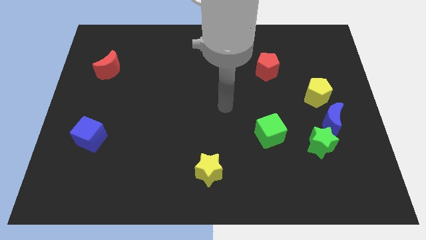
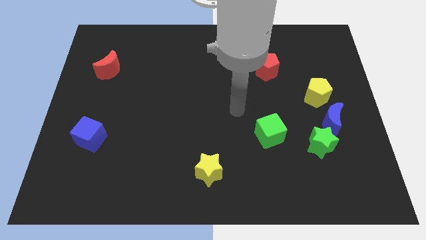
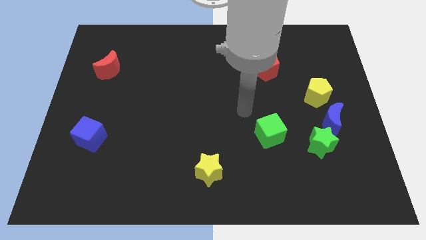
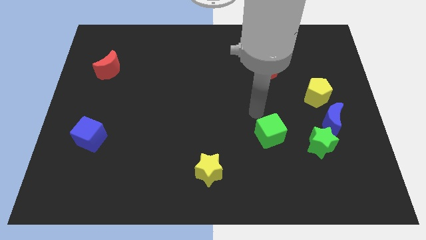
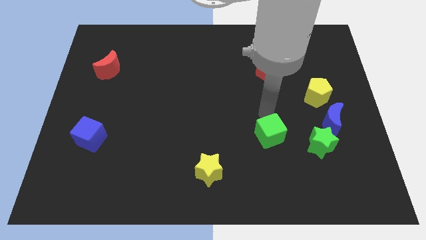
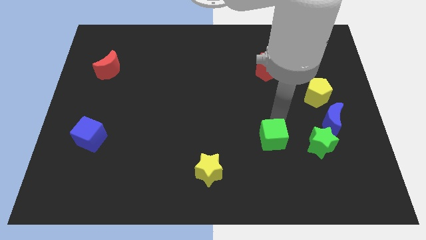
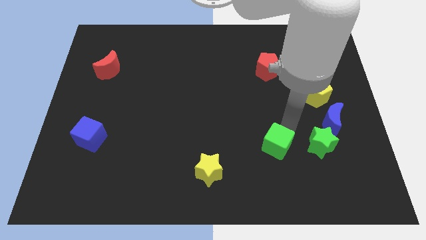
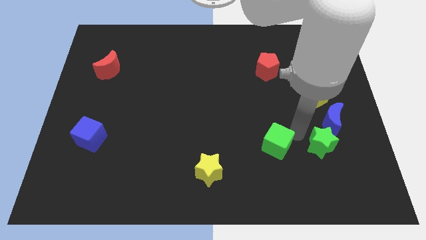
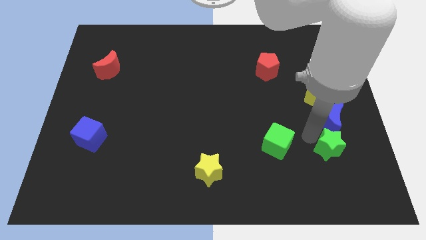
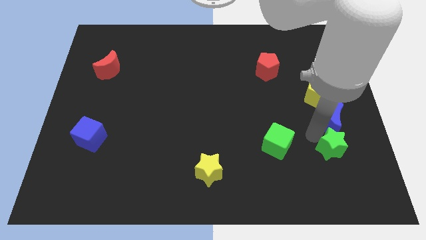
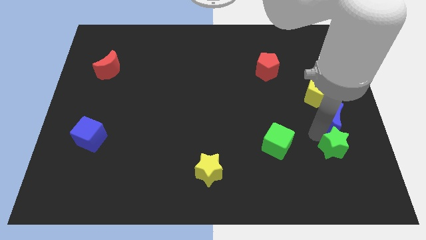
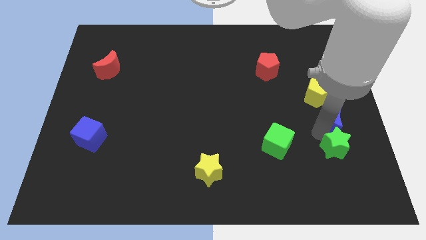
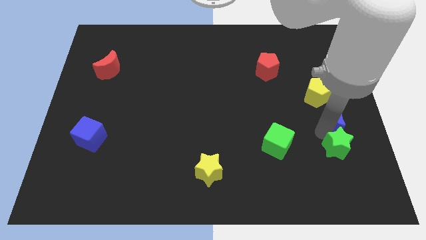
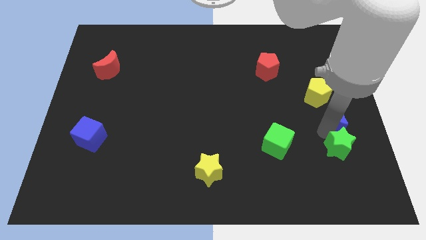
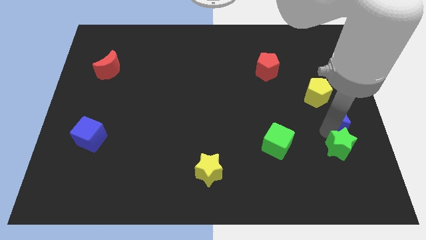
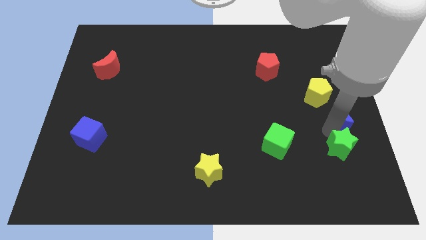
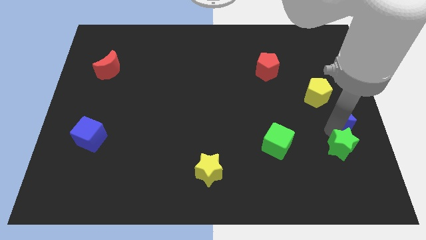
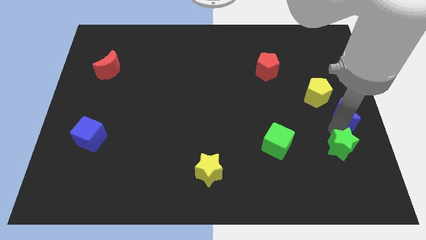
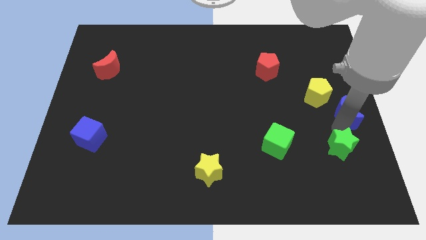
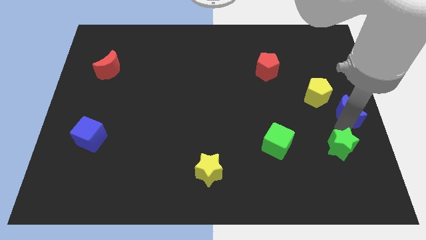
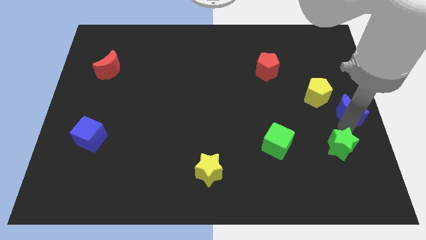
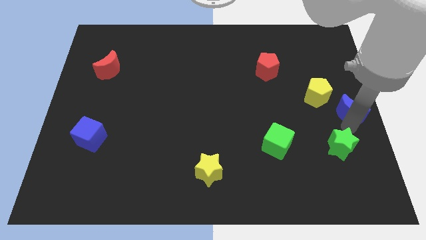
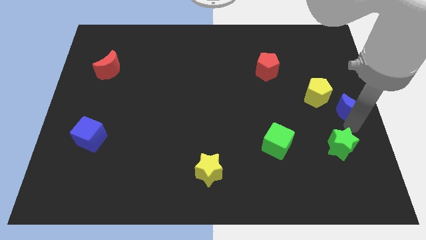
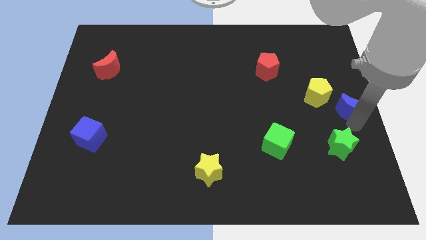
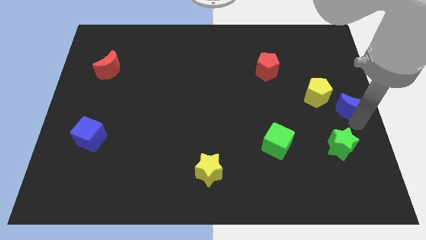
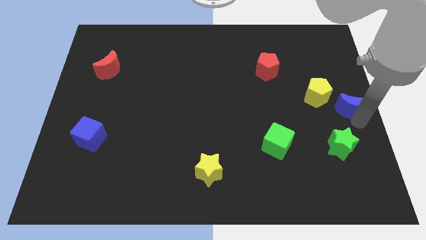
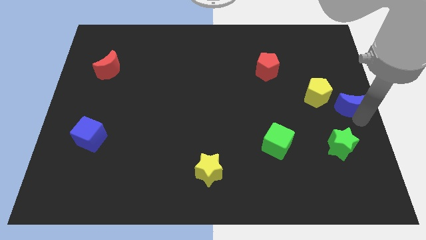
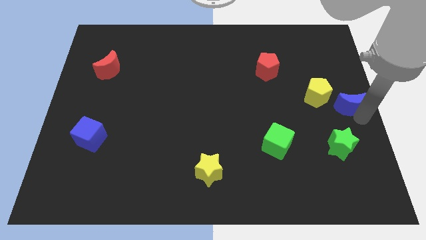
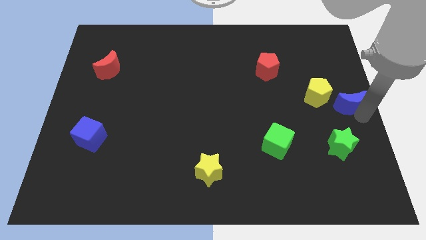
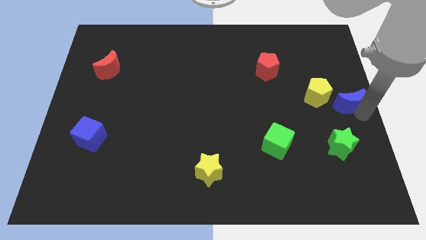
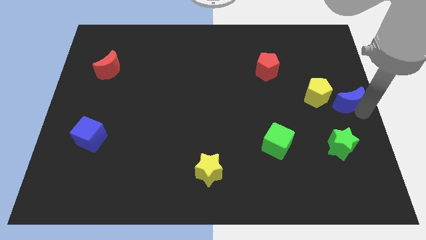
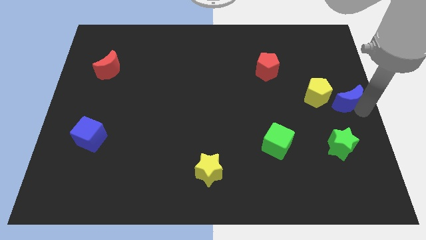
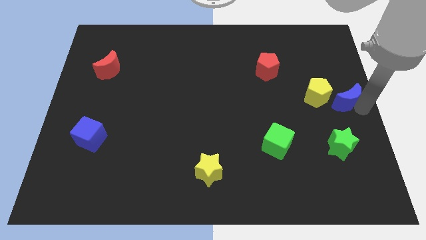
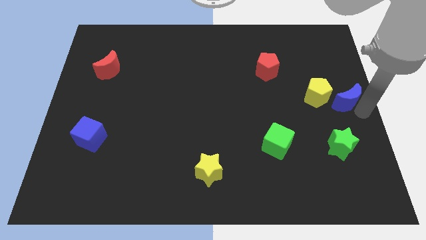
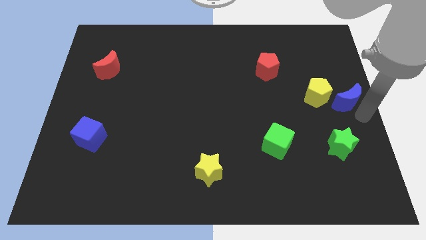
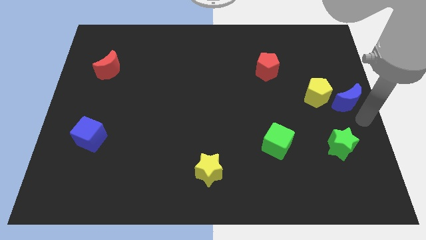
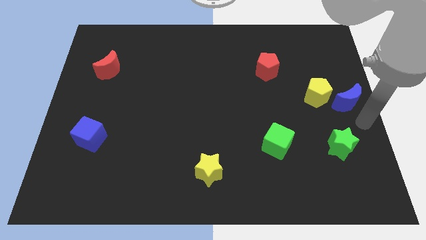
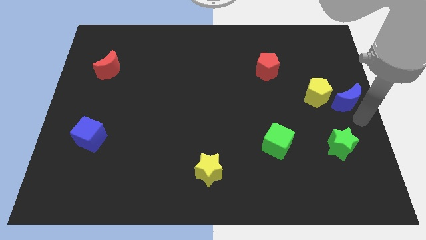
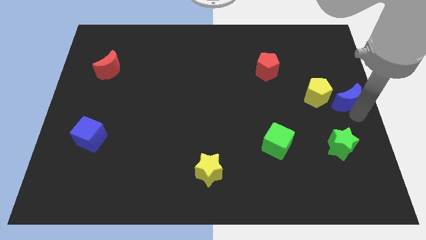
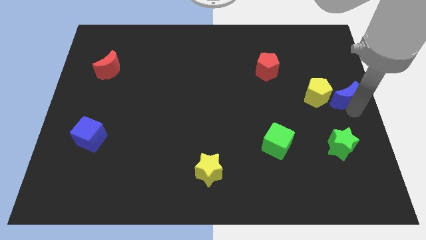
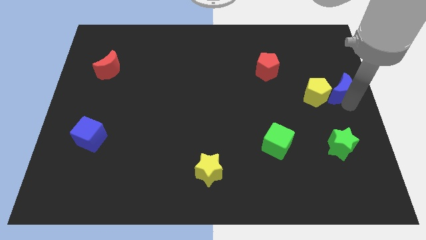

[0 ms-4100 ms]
slide the blue moon a little bit upwards

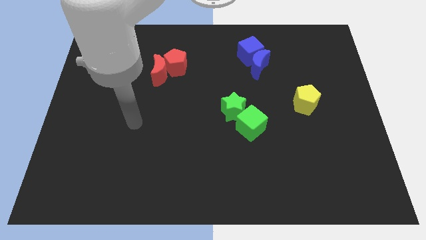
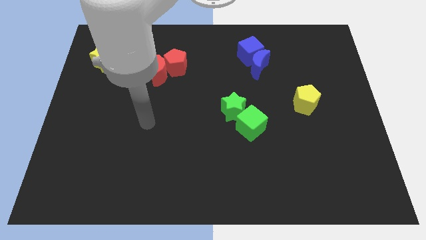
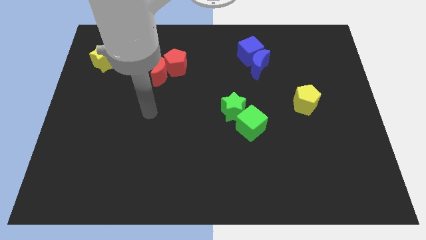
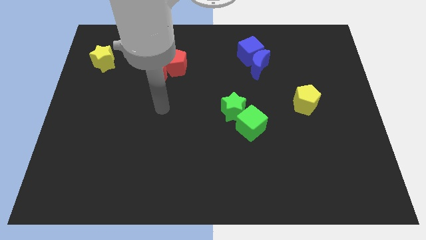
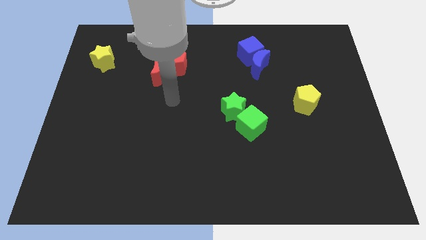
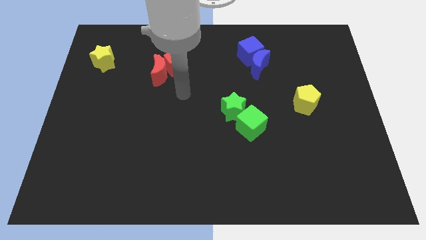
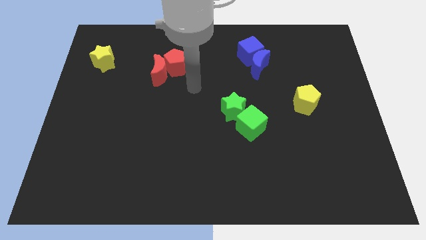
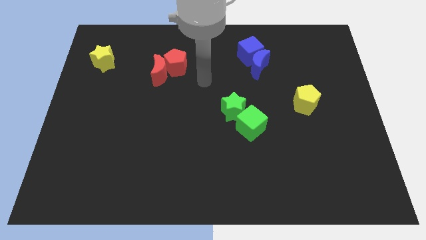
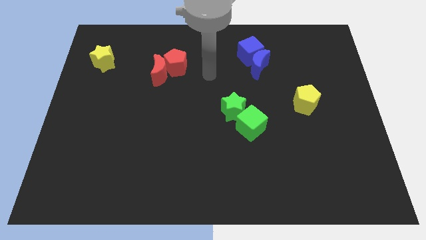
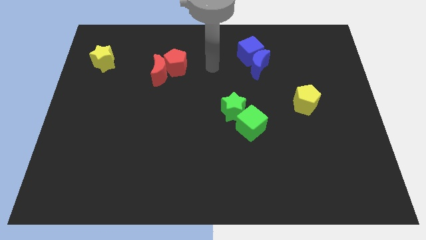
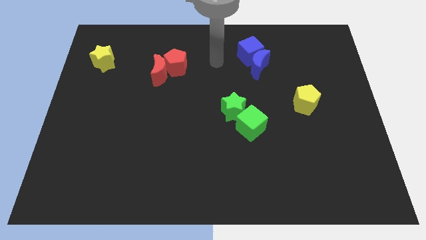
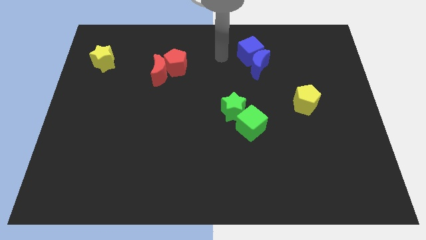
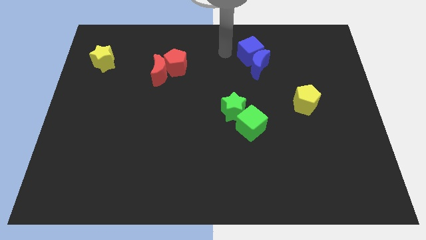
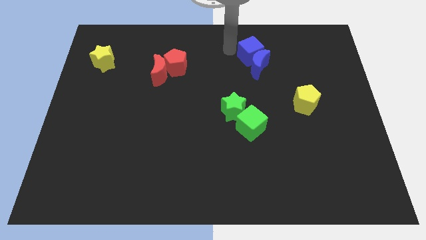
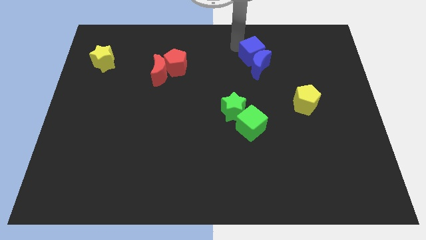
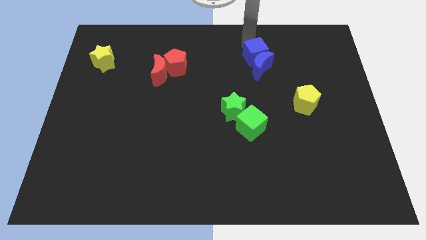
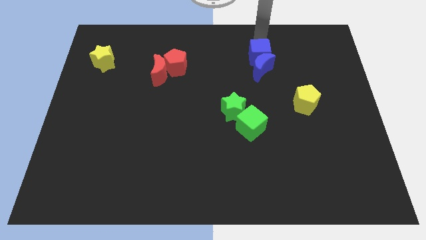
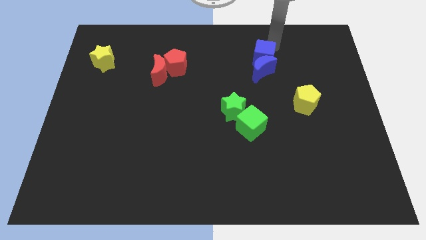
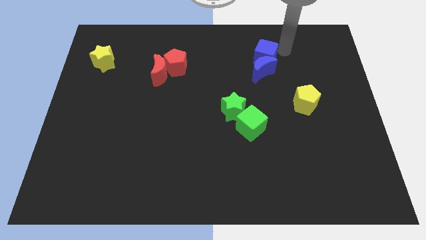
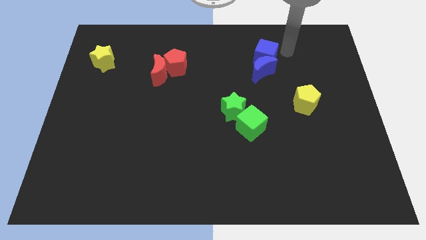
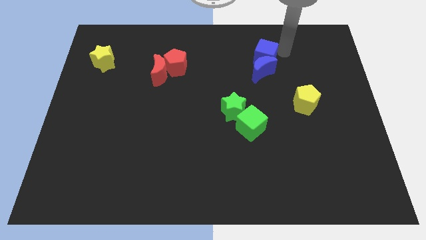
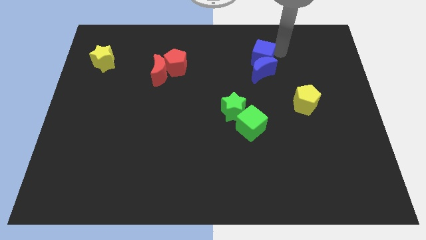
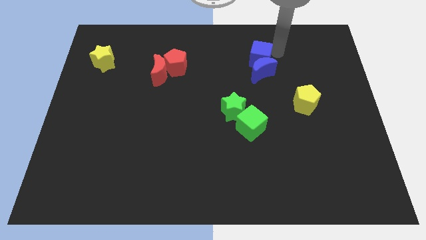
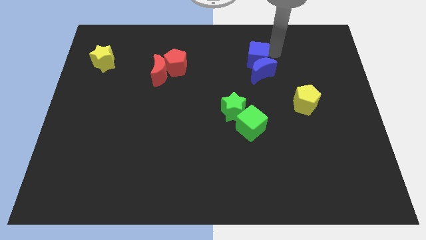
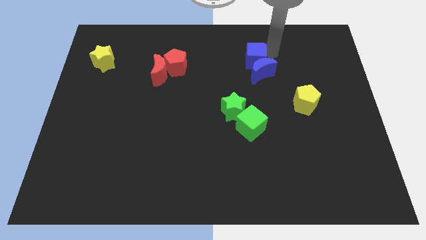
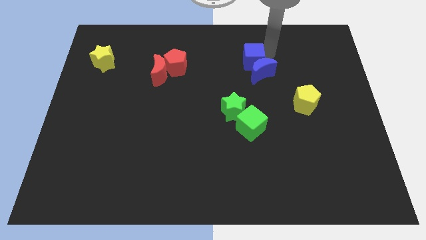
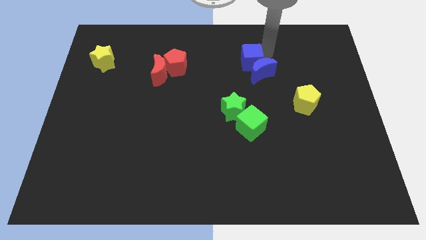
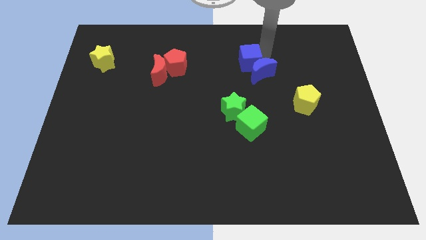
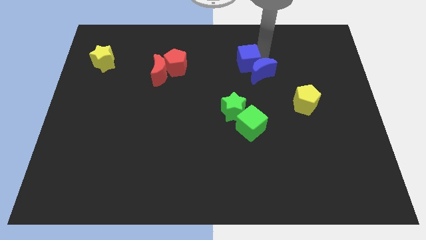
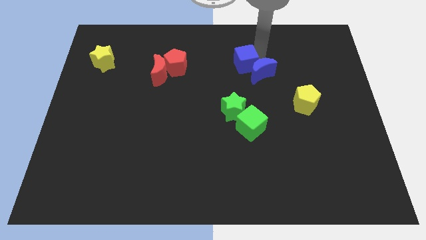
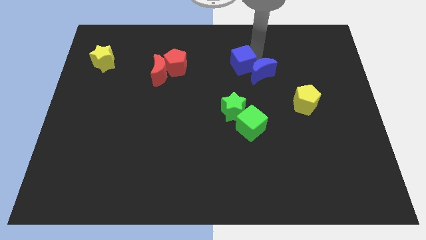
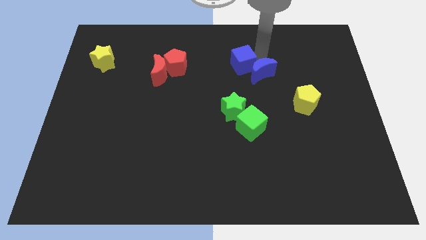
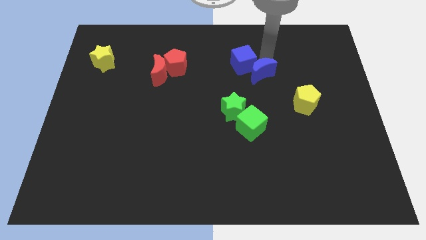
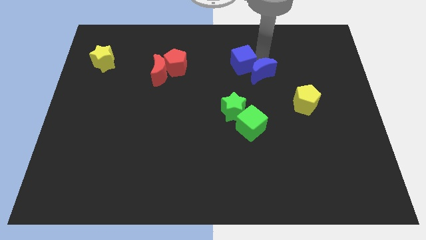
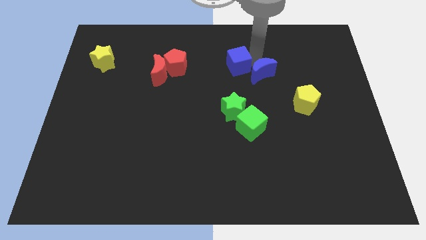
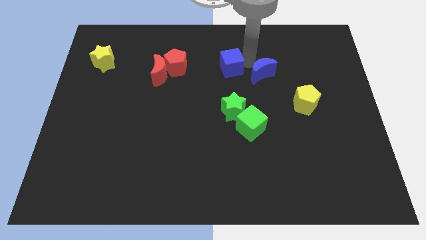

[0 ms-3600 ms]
move the blue cube downwards and then to the left somewhat
